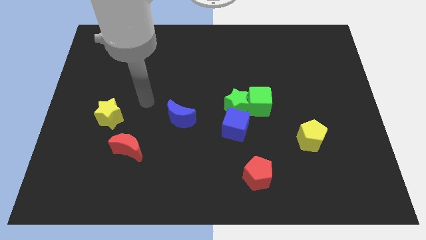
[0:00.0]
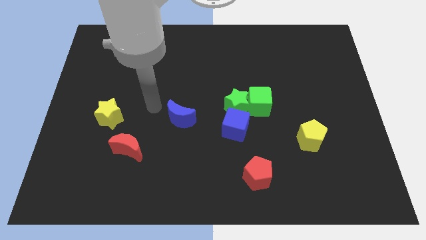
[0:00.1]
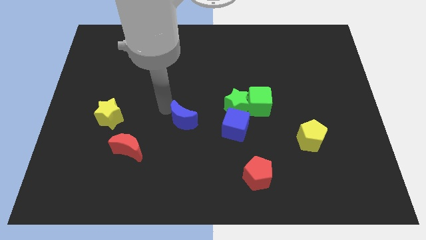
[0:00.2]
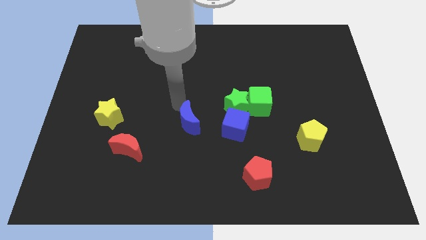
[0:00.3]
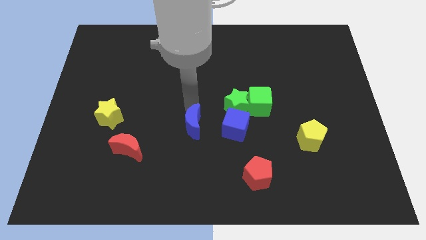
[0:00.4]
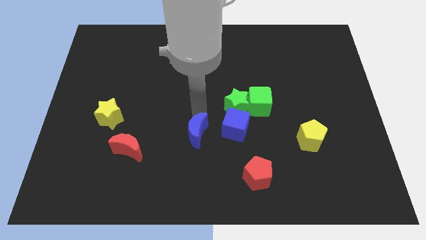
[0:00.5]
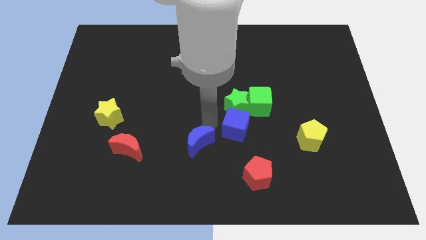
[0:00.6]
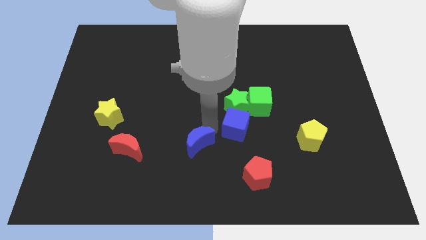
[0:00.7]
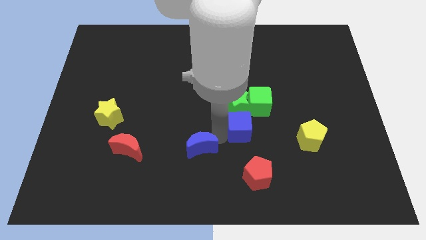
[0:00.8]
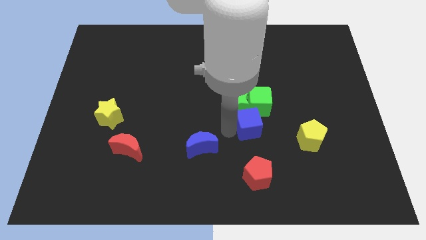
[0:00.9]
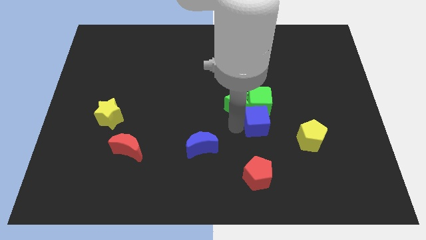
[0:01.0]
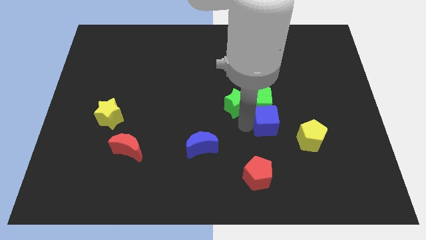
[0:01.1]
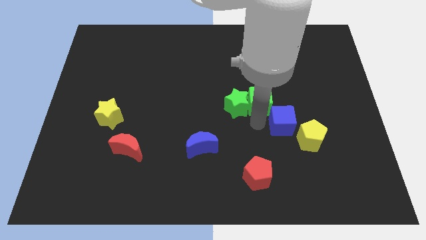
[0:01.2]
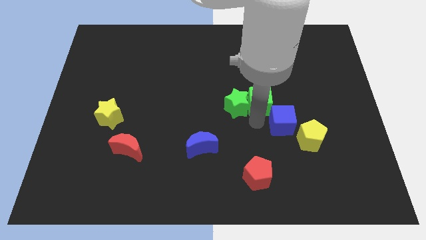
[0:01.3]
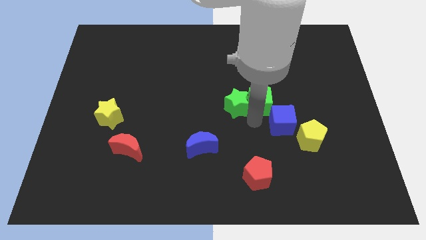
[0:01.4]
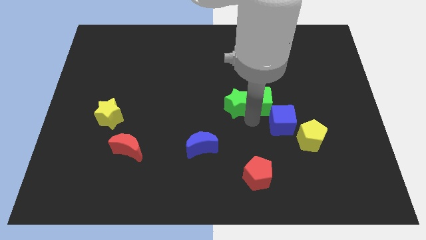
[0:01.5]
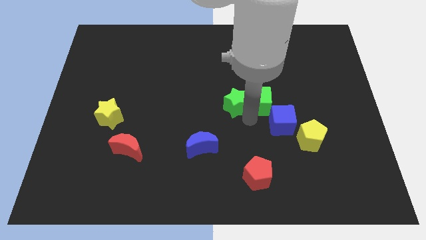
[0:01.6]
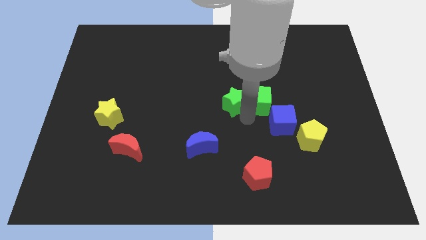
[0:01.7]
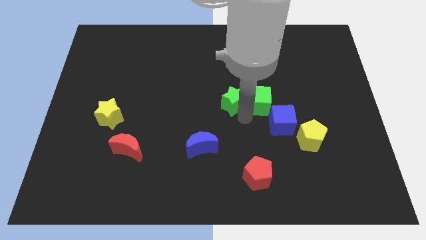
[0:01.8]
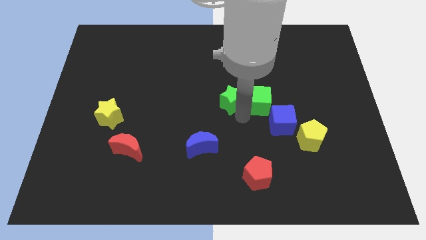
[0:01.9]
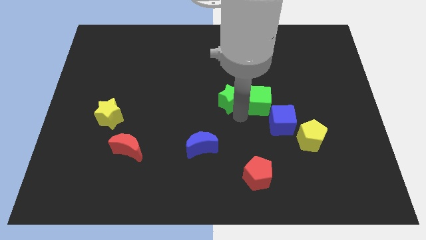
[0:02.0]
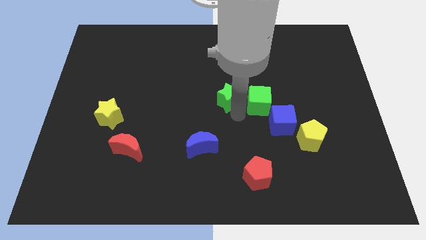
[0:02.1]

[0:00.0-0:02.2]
pull the green star apart from the green cube and blue cube

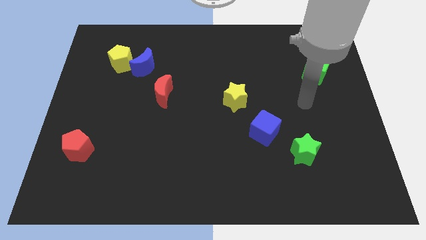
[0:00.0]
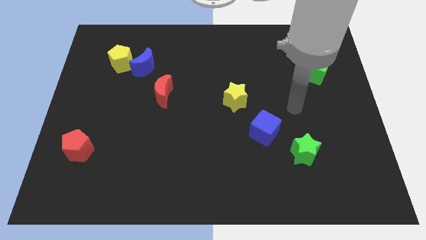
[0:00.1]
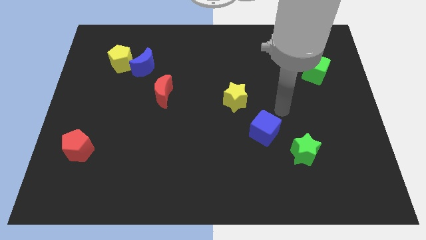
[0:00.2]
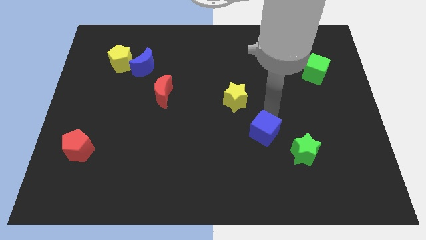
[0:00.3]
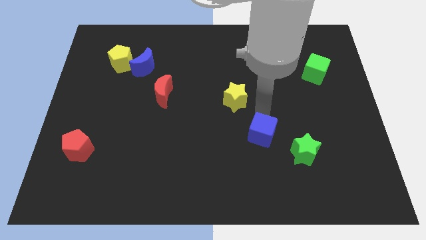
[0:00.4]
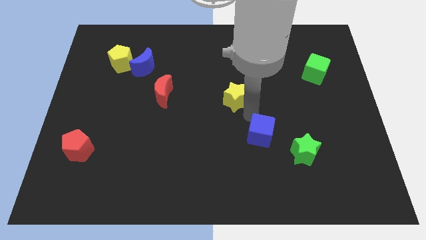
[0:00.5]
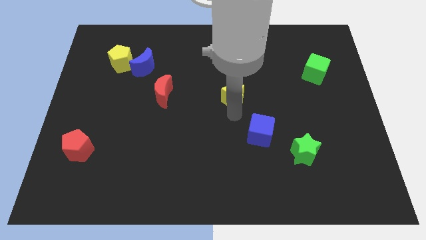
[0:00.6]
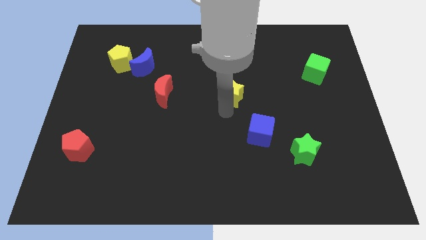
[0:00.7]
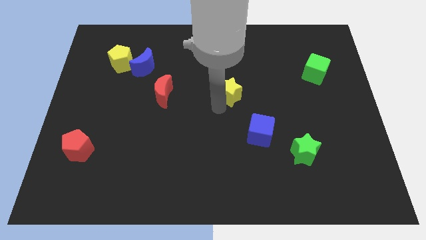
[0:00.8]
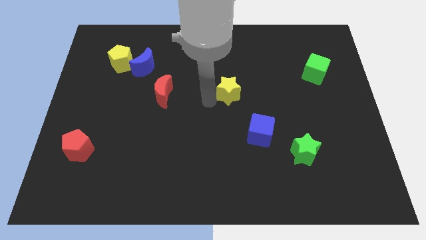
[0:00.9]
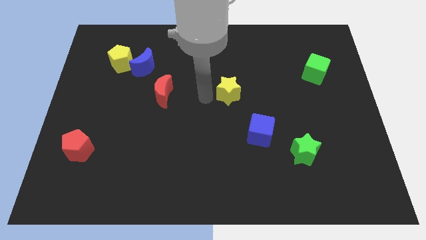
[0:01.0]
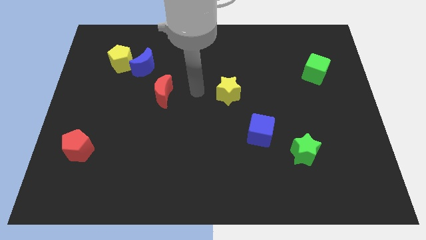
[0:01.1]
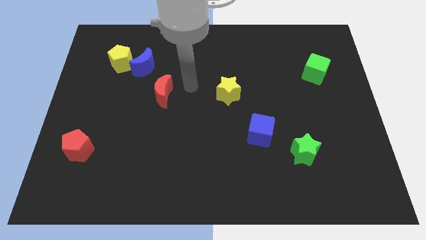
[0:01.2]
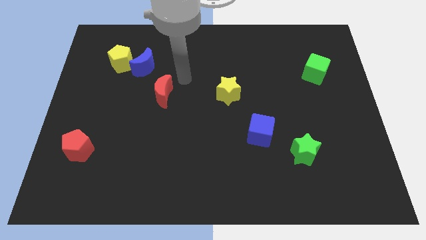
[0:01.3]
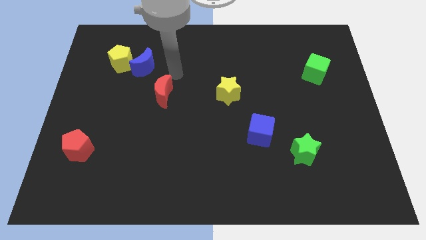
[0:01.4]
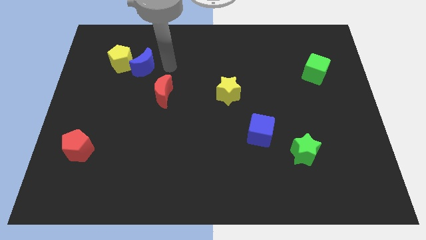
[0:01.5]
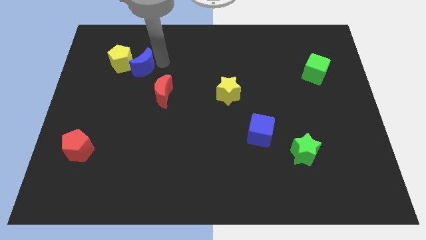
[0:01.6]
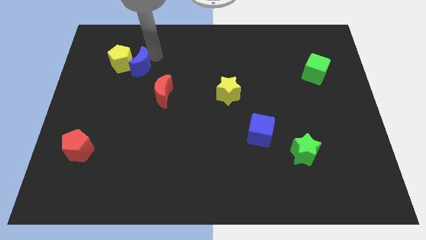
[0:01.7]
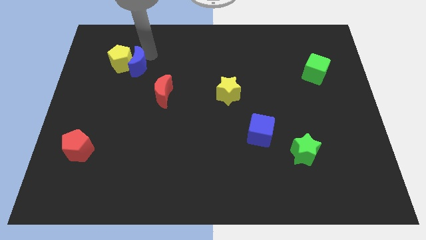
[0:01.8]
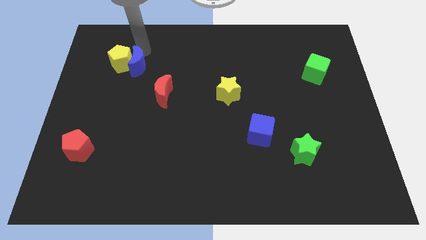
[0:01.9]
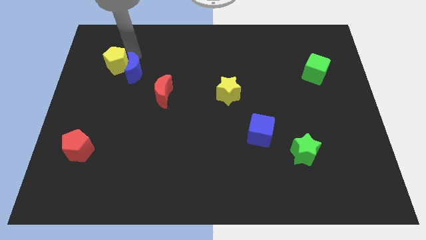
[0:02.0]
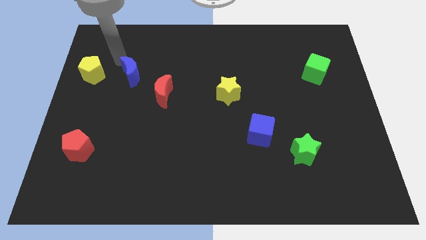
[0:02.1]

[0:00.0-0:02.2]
pull the blue moon apart from the yellow pentagon

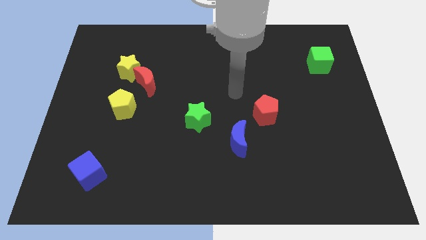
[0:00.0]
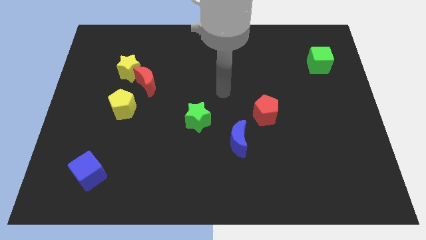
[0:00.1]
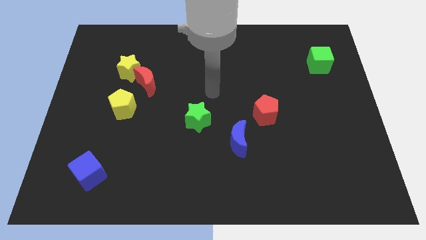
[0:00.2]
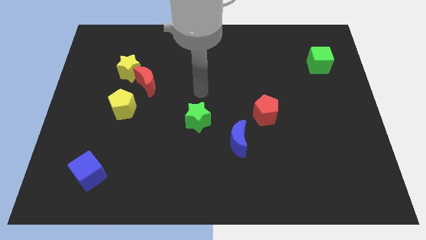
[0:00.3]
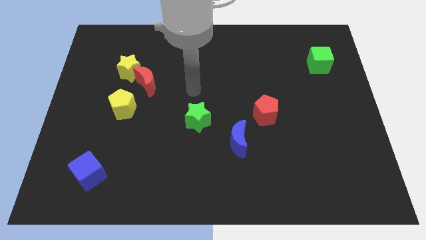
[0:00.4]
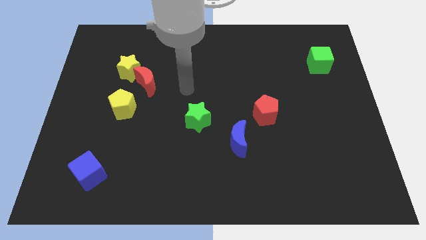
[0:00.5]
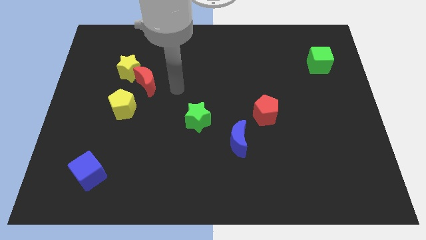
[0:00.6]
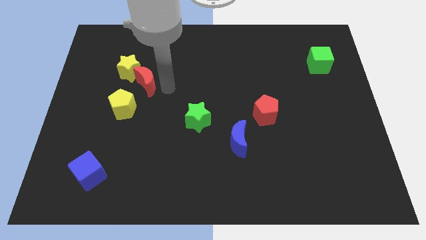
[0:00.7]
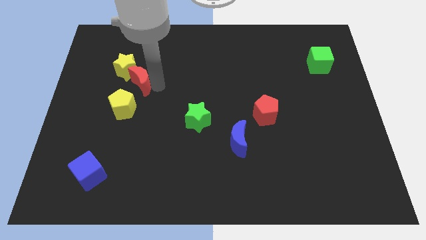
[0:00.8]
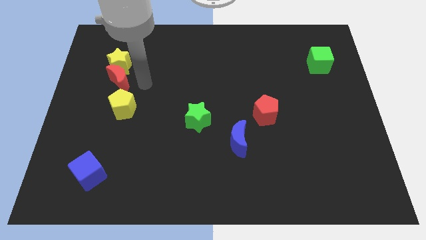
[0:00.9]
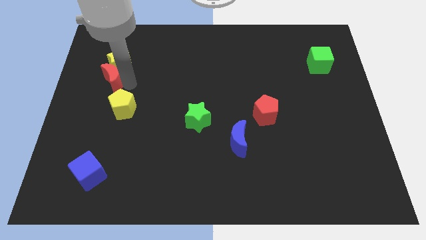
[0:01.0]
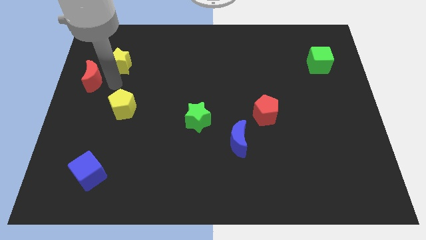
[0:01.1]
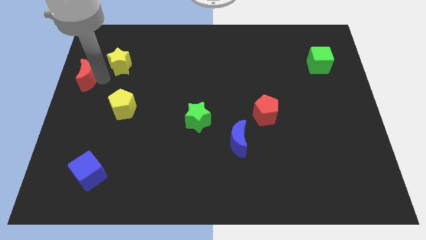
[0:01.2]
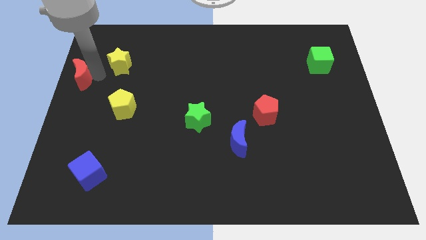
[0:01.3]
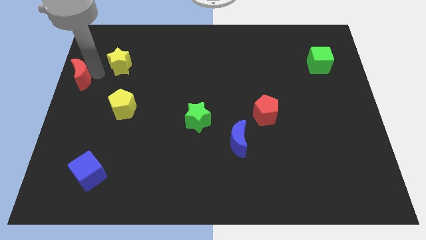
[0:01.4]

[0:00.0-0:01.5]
separate the yellow star from the red moon

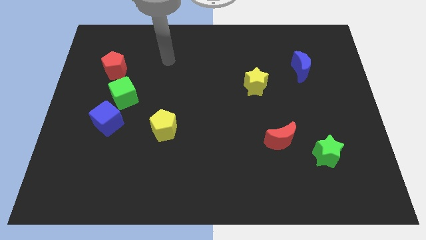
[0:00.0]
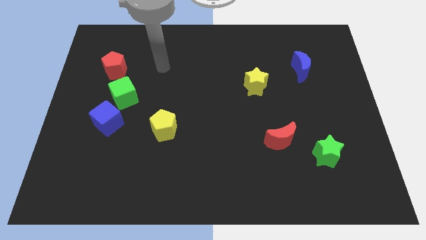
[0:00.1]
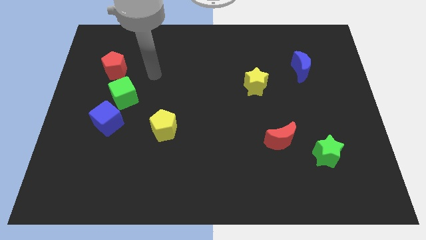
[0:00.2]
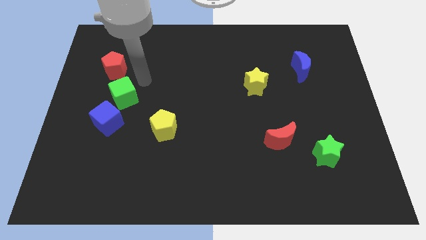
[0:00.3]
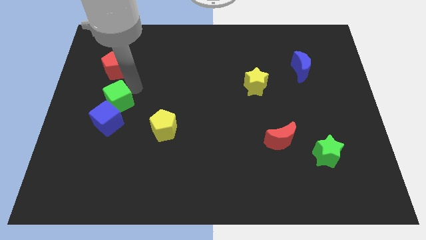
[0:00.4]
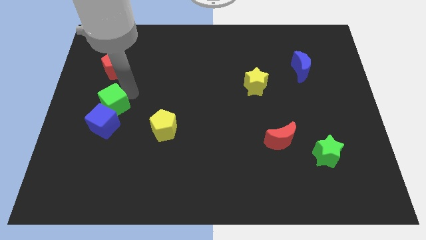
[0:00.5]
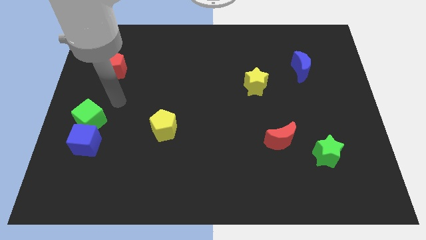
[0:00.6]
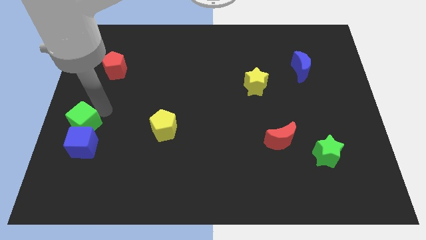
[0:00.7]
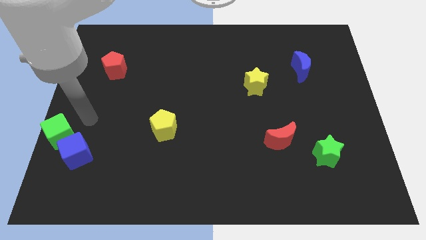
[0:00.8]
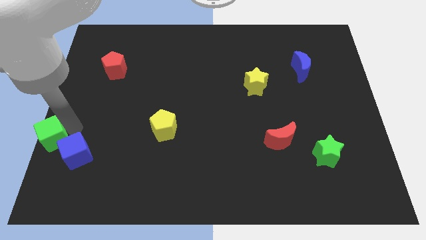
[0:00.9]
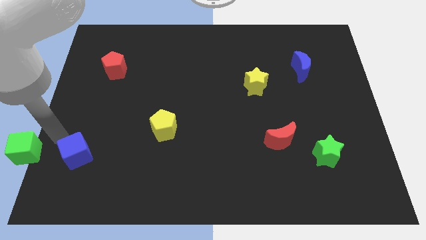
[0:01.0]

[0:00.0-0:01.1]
separate the blue cube from the green cube

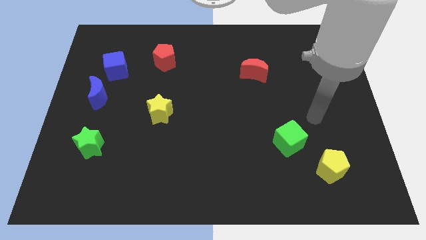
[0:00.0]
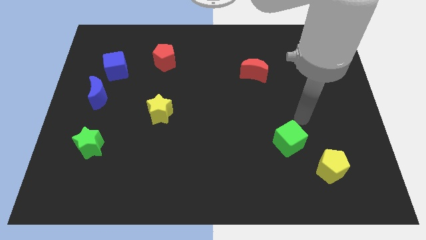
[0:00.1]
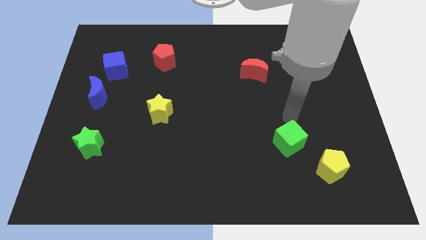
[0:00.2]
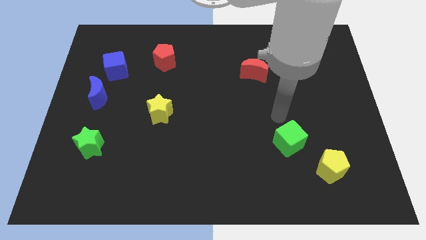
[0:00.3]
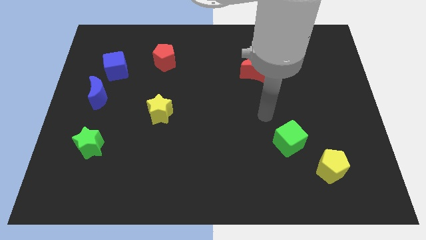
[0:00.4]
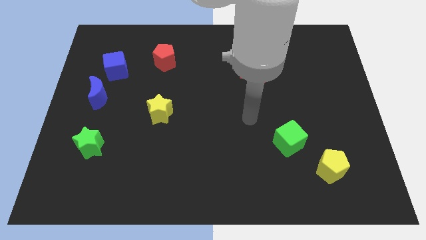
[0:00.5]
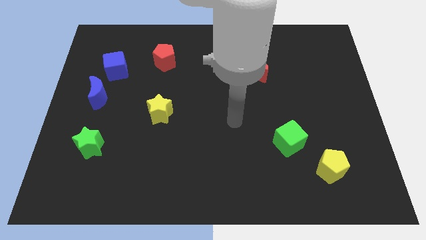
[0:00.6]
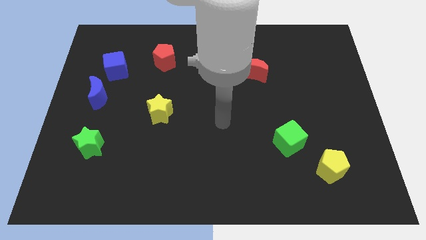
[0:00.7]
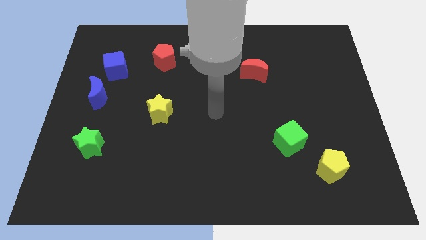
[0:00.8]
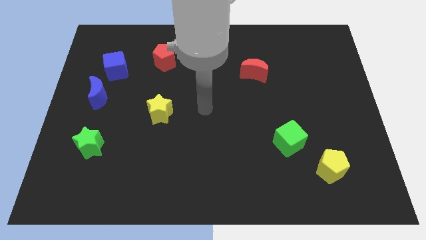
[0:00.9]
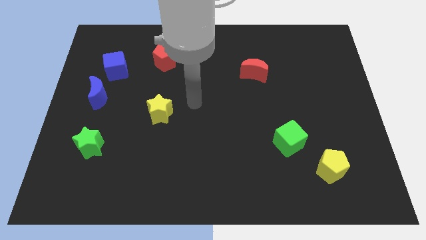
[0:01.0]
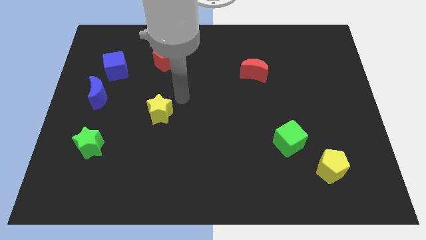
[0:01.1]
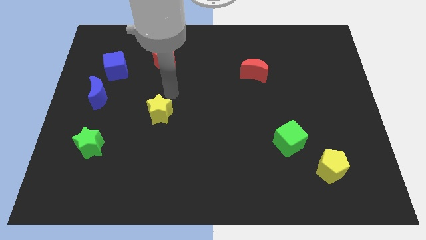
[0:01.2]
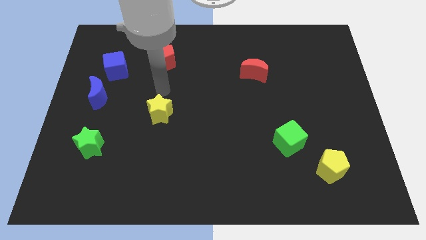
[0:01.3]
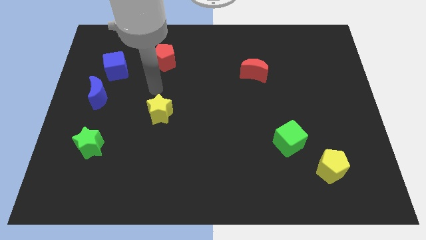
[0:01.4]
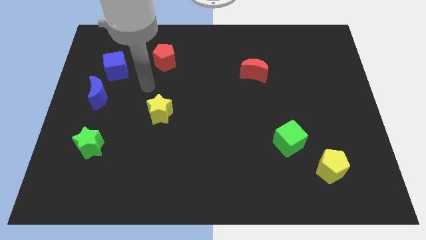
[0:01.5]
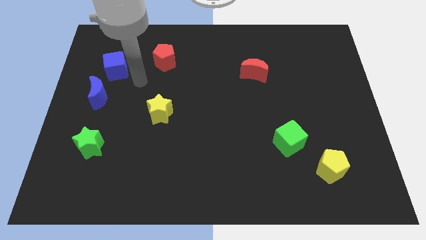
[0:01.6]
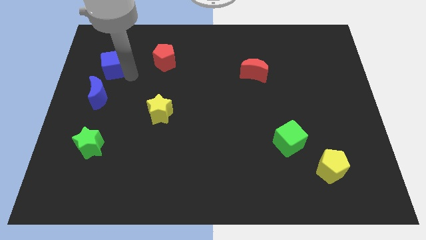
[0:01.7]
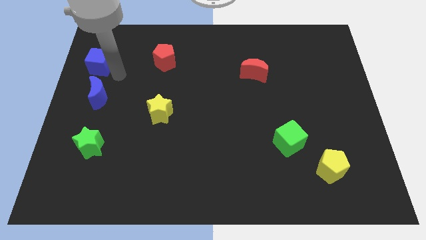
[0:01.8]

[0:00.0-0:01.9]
pull the blue moon apart from the blue cube

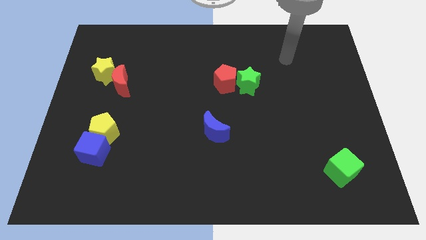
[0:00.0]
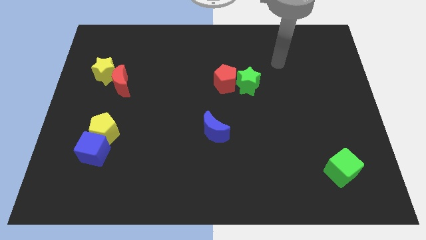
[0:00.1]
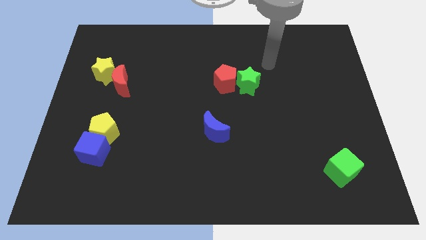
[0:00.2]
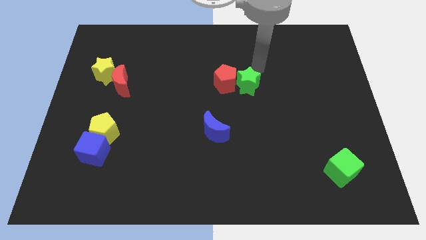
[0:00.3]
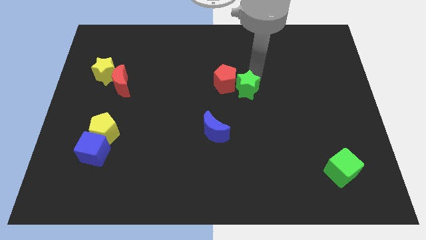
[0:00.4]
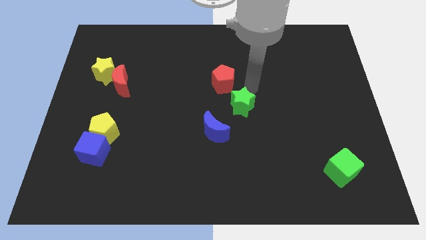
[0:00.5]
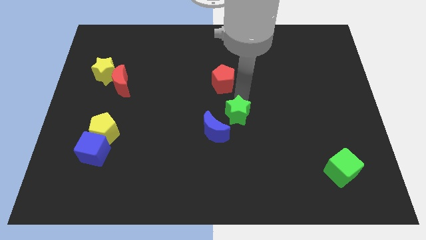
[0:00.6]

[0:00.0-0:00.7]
pull the red pentagon apart from the green star
